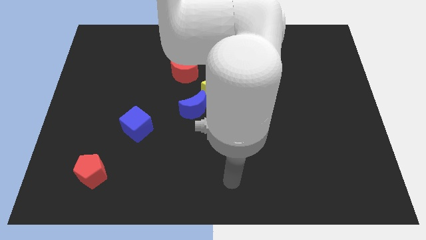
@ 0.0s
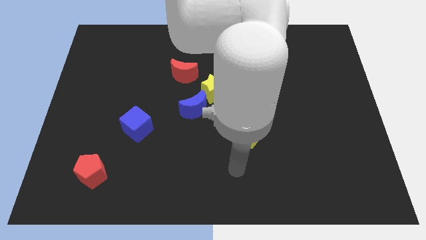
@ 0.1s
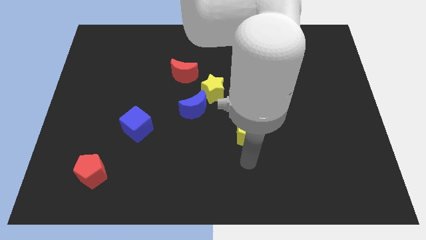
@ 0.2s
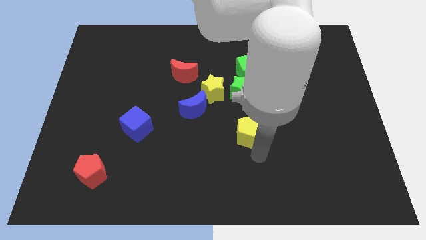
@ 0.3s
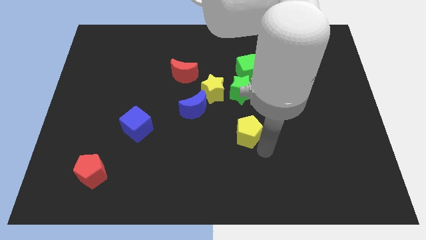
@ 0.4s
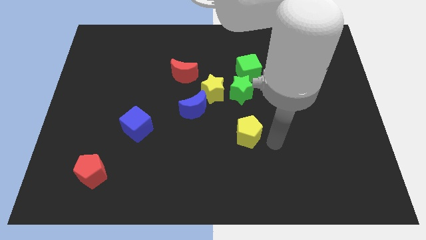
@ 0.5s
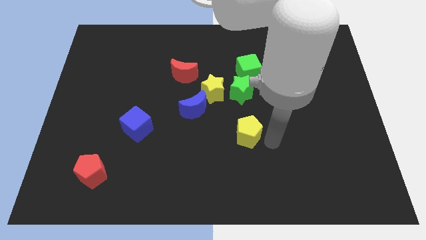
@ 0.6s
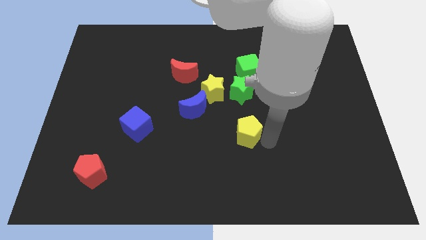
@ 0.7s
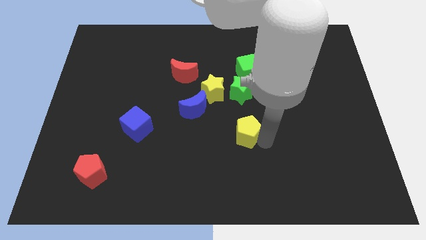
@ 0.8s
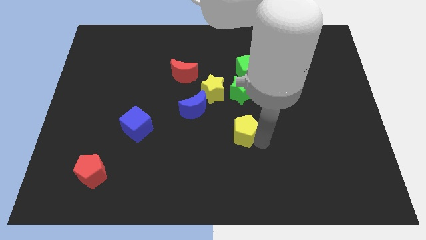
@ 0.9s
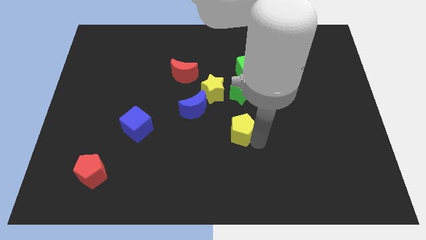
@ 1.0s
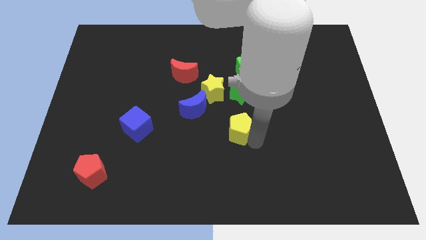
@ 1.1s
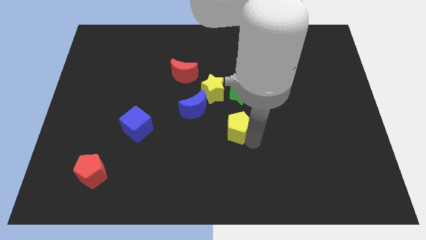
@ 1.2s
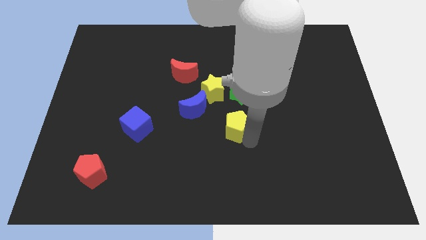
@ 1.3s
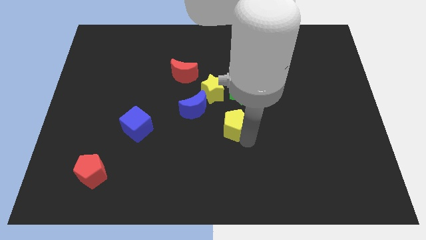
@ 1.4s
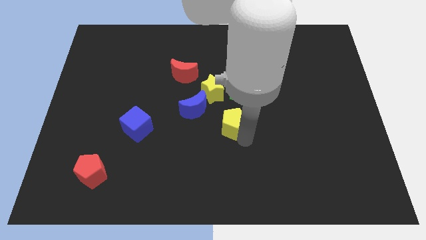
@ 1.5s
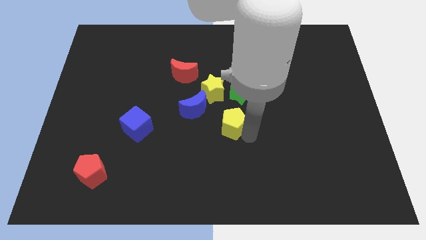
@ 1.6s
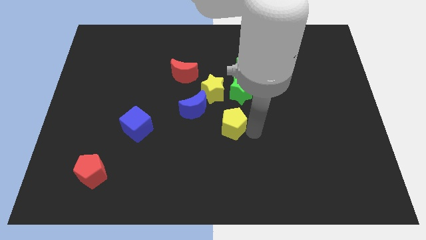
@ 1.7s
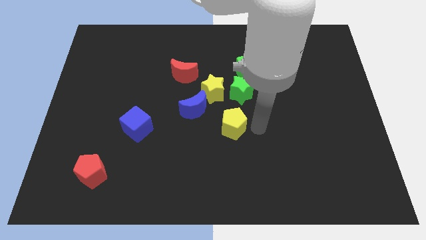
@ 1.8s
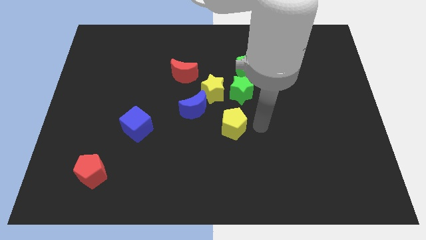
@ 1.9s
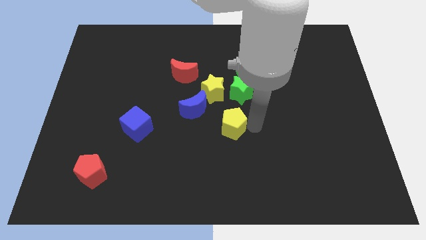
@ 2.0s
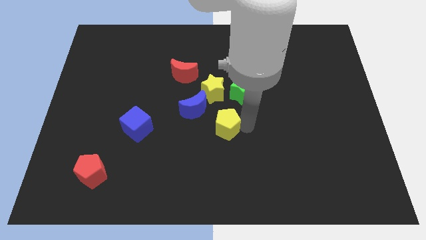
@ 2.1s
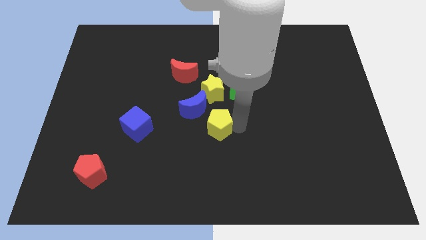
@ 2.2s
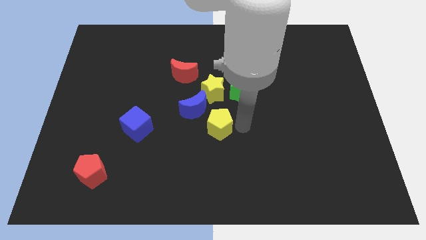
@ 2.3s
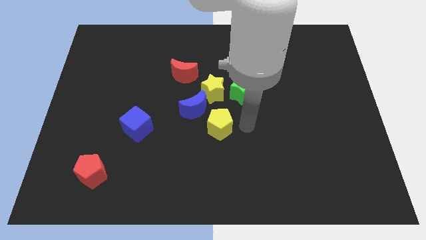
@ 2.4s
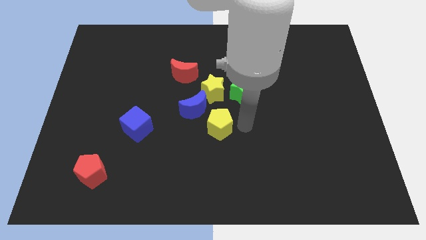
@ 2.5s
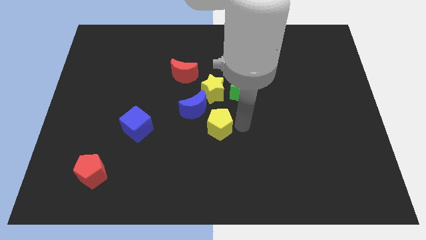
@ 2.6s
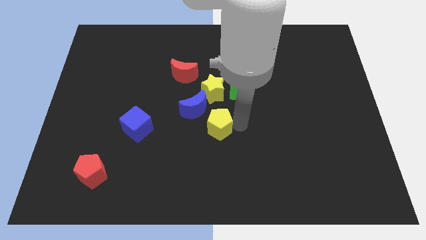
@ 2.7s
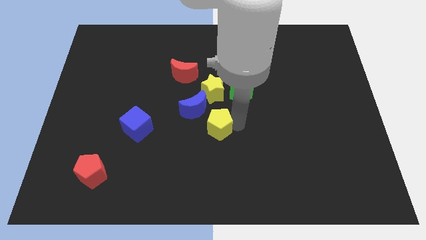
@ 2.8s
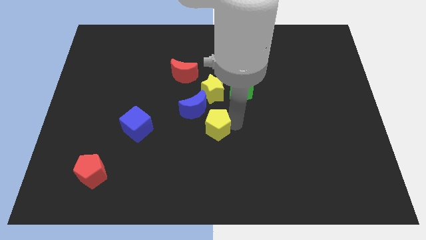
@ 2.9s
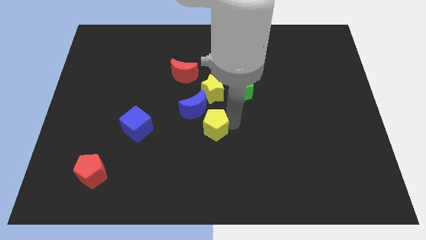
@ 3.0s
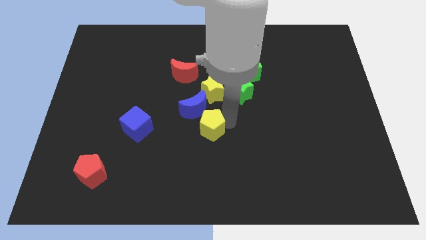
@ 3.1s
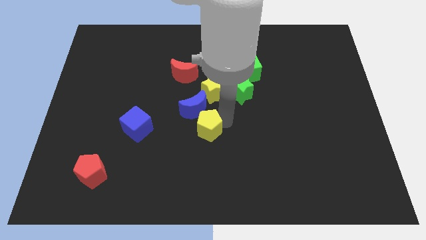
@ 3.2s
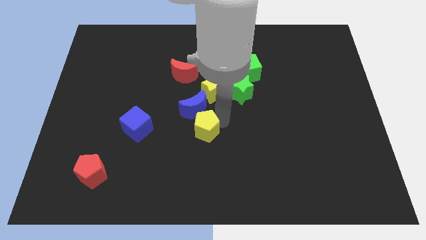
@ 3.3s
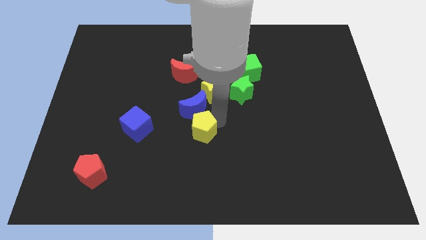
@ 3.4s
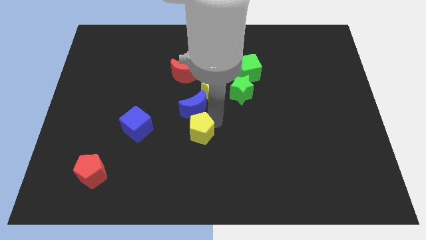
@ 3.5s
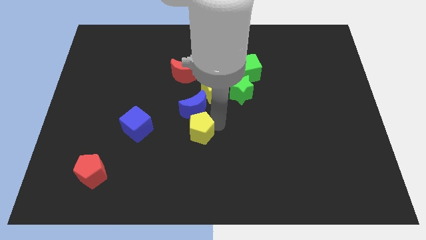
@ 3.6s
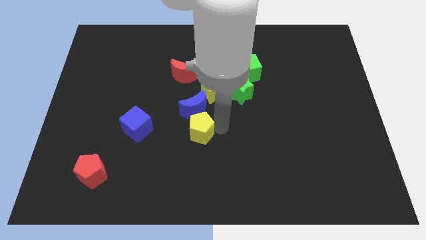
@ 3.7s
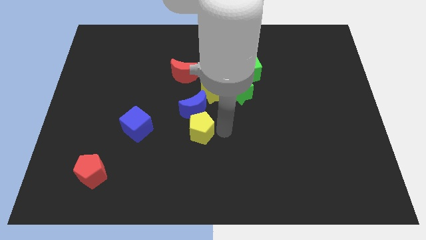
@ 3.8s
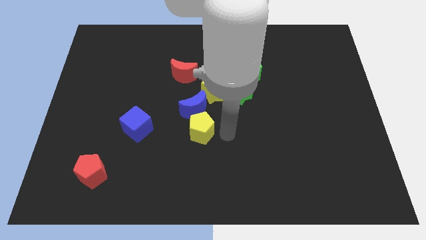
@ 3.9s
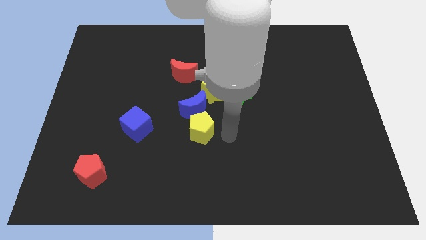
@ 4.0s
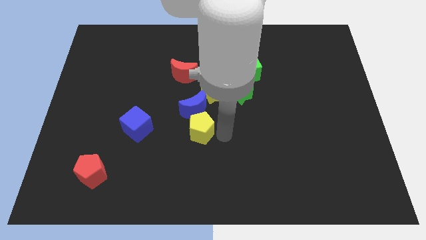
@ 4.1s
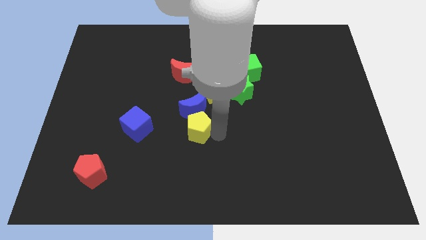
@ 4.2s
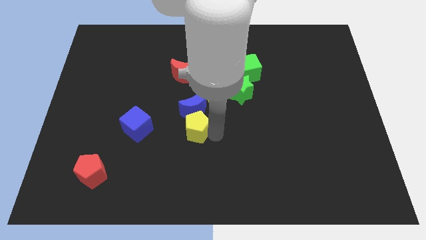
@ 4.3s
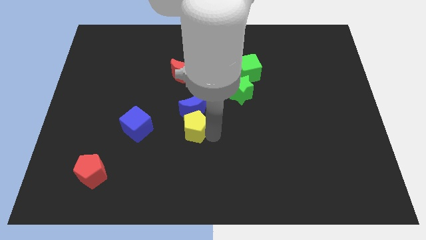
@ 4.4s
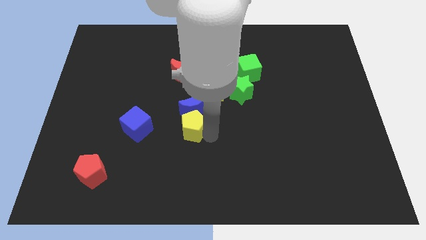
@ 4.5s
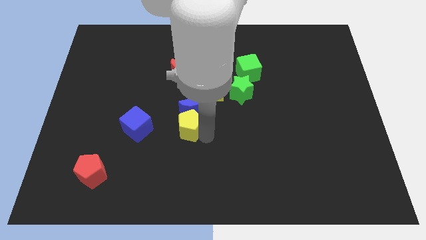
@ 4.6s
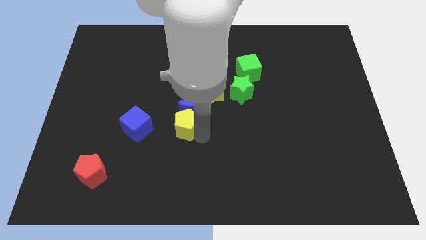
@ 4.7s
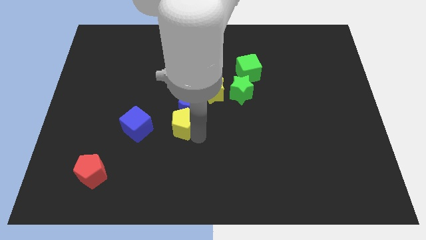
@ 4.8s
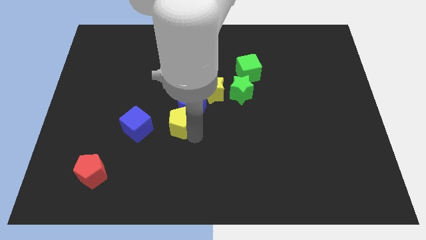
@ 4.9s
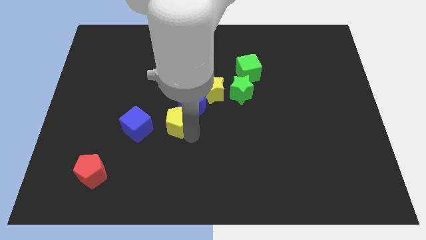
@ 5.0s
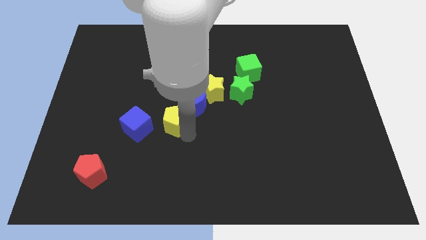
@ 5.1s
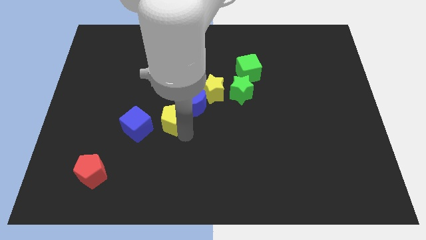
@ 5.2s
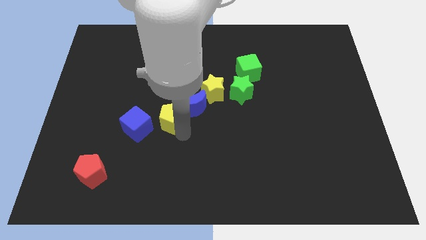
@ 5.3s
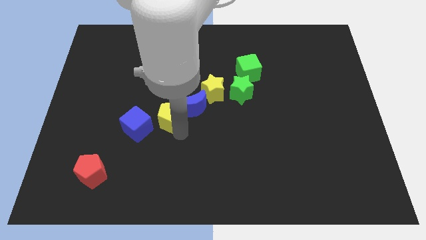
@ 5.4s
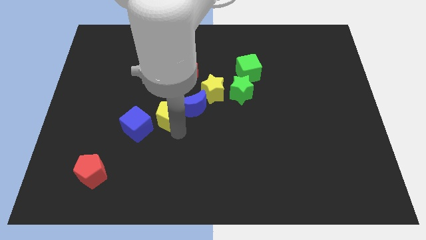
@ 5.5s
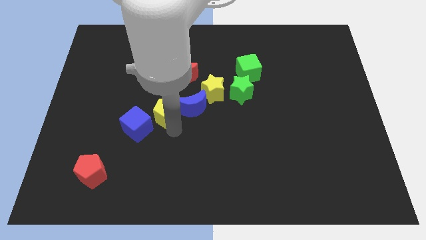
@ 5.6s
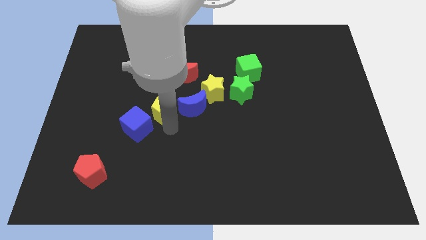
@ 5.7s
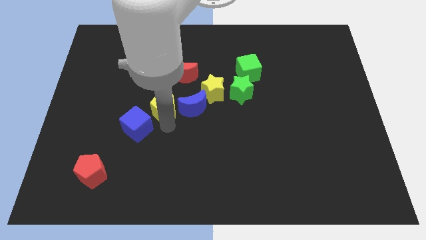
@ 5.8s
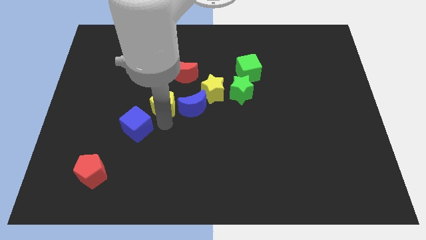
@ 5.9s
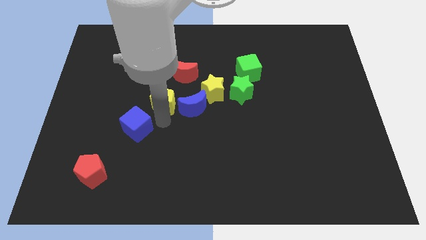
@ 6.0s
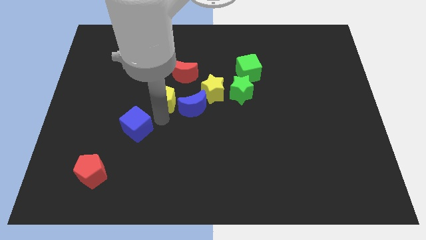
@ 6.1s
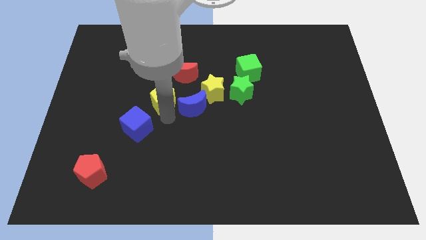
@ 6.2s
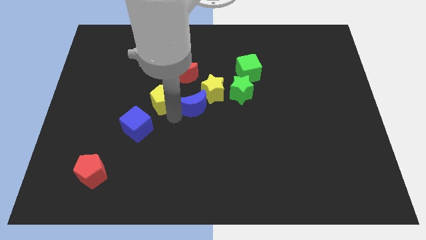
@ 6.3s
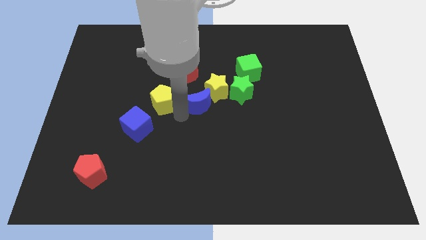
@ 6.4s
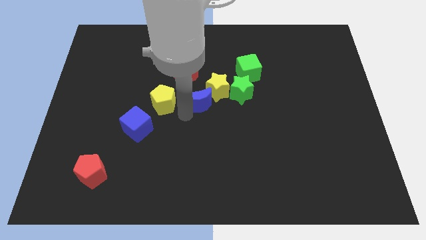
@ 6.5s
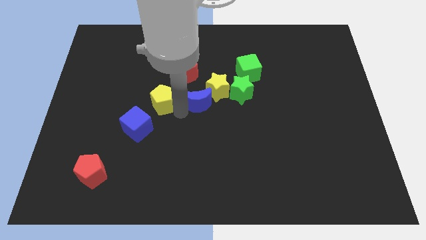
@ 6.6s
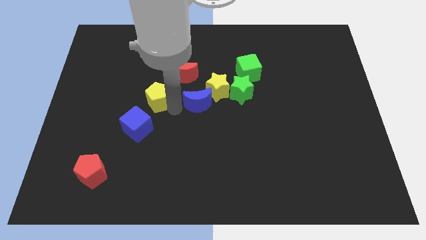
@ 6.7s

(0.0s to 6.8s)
put the yellow pentagon to the top of the blue cube

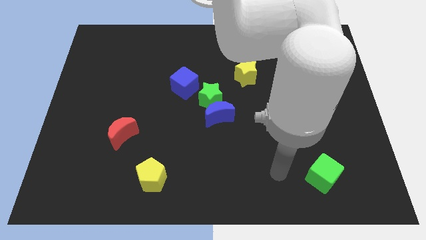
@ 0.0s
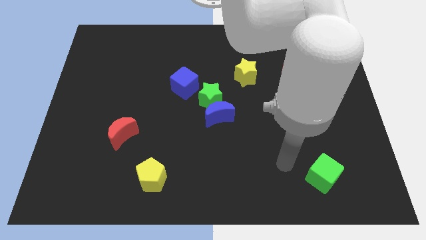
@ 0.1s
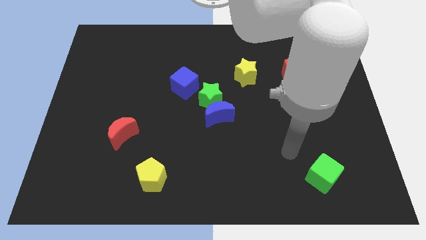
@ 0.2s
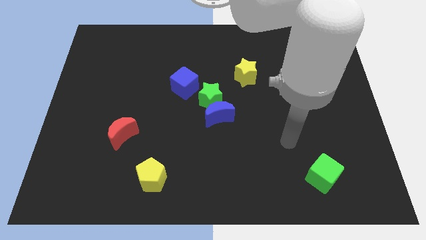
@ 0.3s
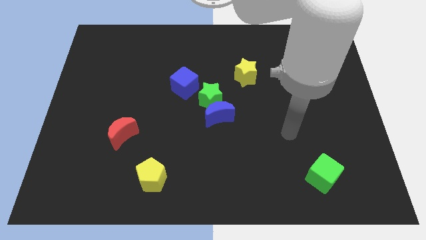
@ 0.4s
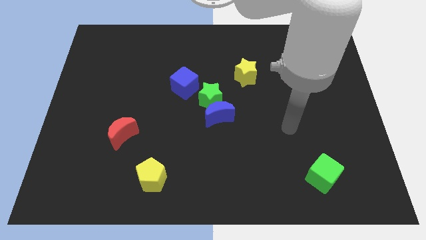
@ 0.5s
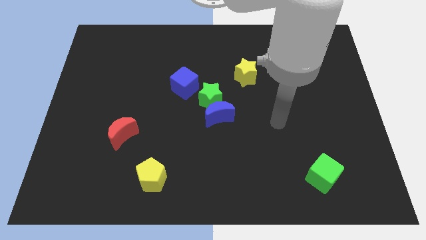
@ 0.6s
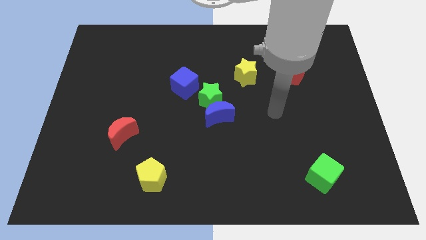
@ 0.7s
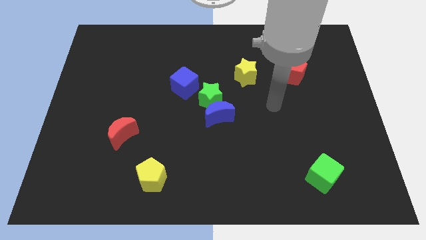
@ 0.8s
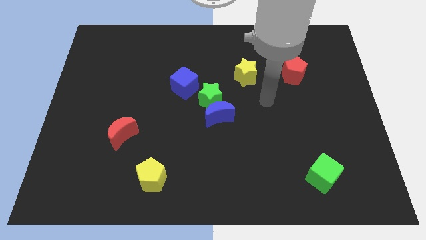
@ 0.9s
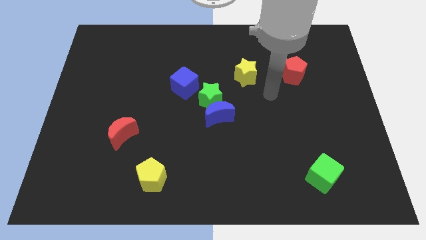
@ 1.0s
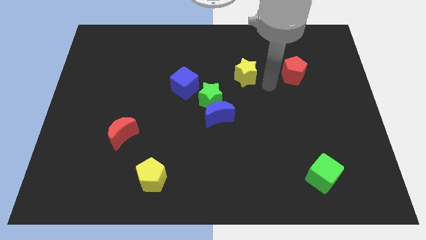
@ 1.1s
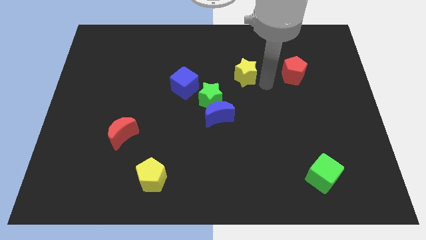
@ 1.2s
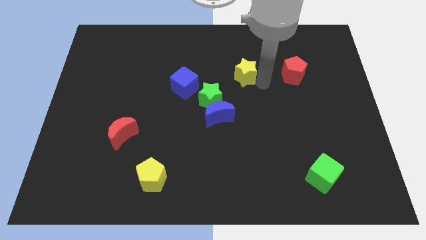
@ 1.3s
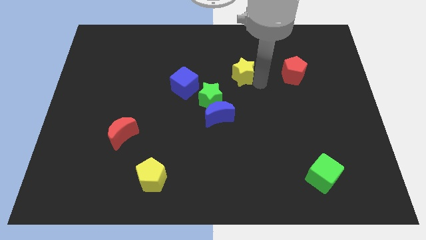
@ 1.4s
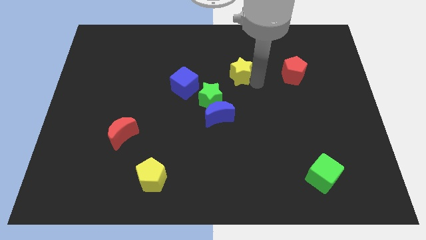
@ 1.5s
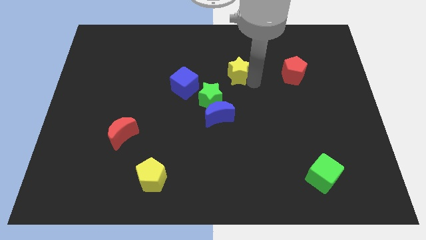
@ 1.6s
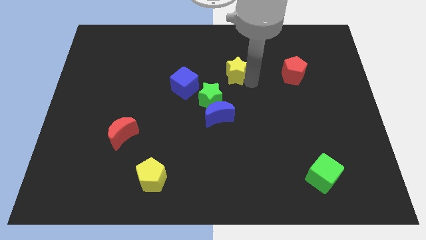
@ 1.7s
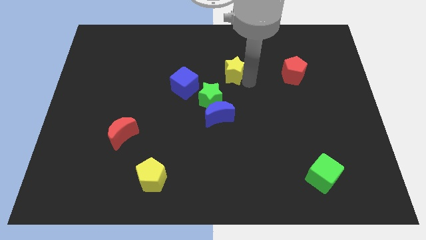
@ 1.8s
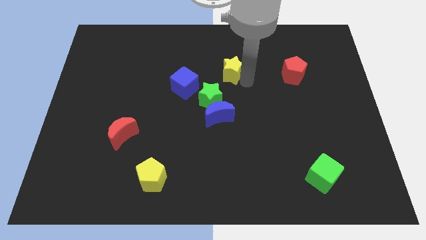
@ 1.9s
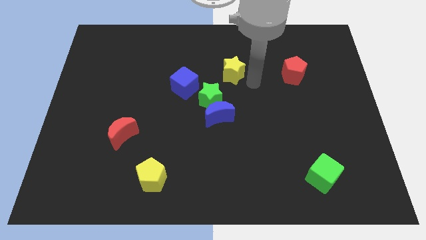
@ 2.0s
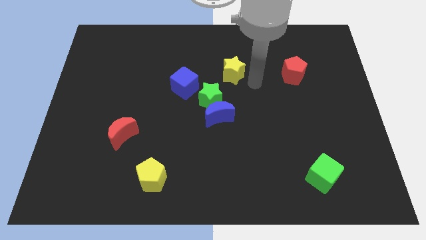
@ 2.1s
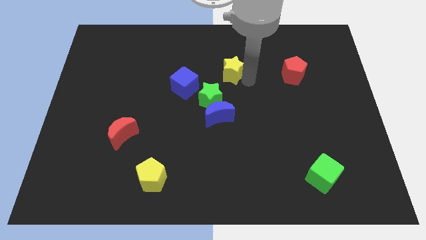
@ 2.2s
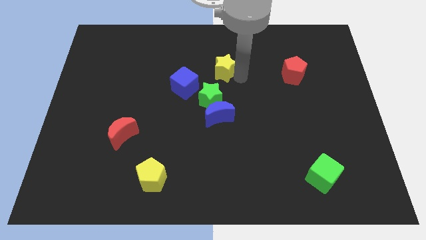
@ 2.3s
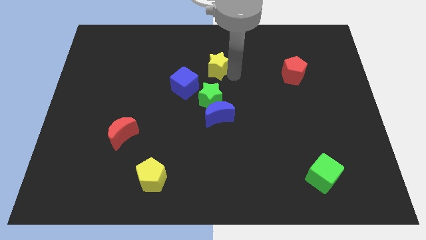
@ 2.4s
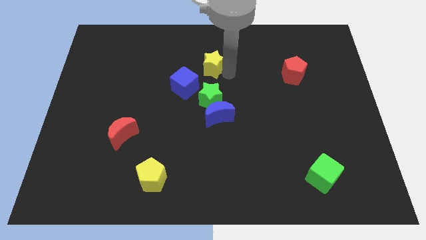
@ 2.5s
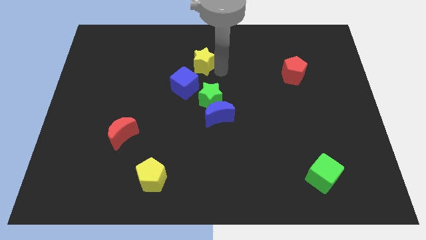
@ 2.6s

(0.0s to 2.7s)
slide the yellow star to the top side of the blue cube
